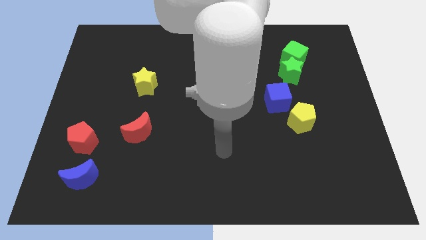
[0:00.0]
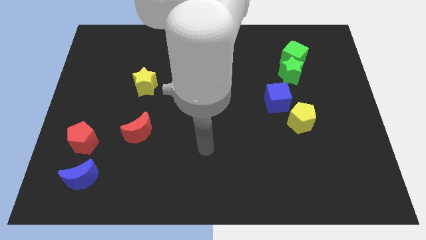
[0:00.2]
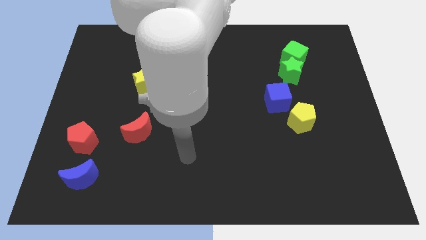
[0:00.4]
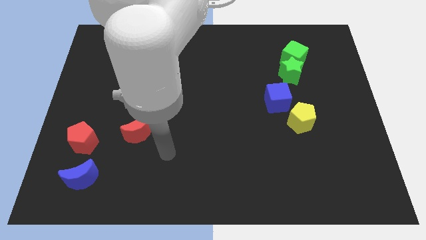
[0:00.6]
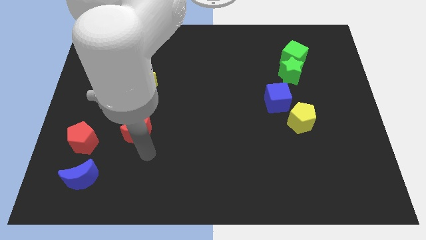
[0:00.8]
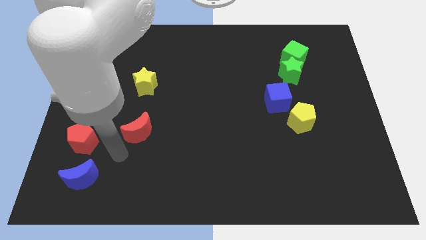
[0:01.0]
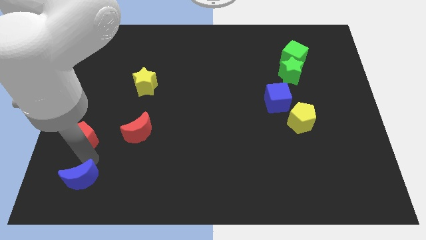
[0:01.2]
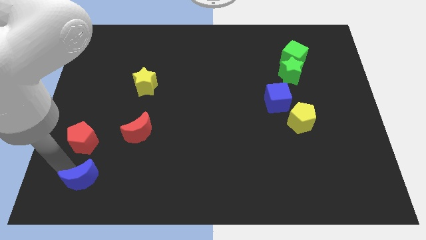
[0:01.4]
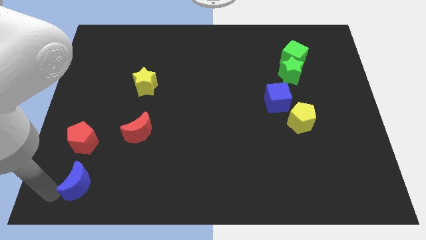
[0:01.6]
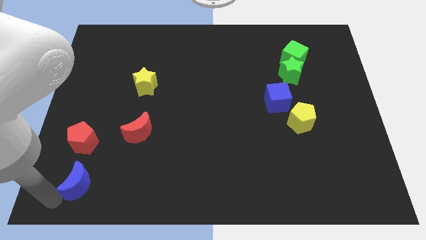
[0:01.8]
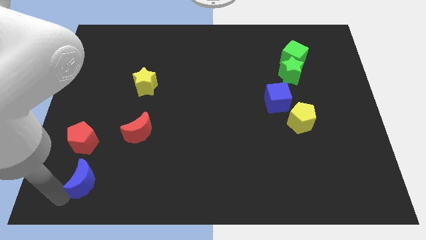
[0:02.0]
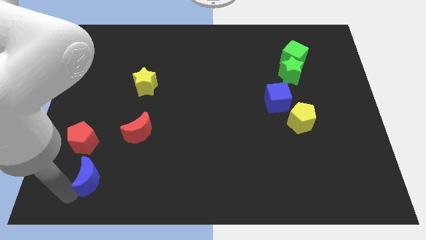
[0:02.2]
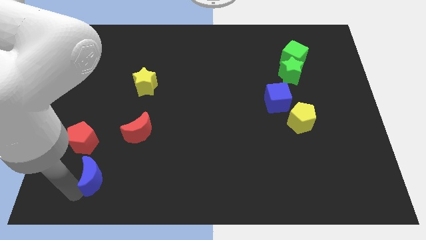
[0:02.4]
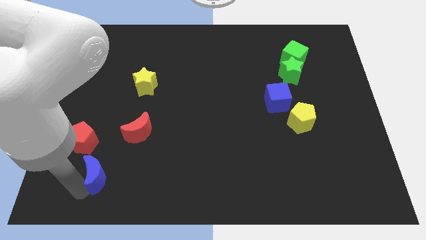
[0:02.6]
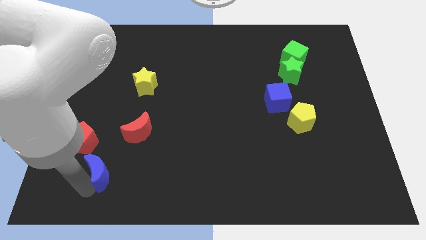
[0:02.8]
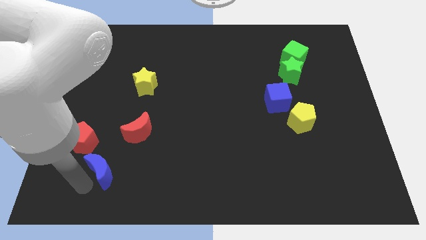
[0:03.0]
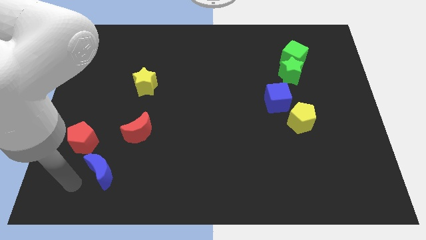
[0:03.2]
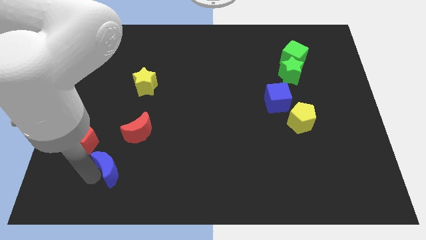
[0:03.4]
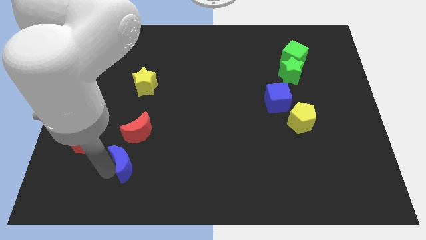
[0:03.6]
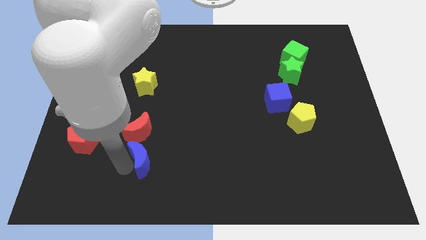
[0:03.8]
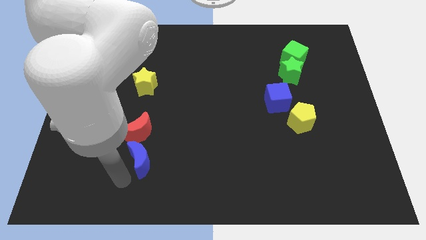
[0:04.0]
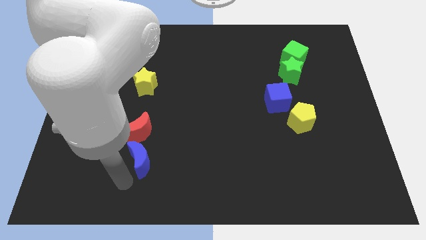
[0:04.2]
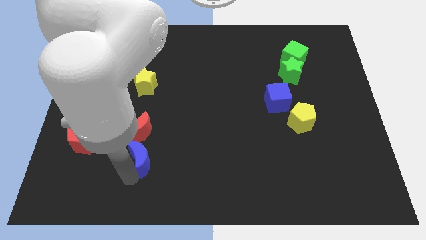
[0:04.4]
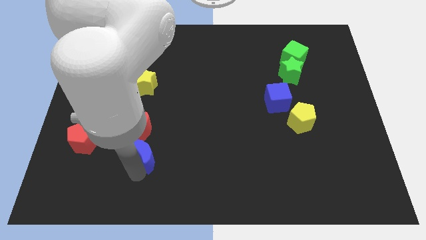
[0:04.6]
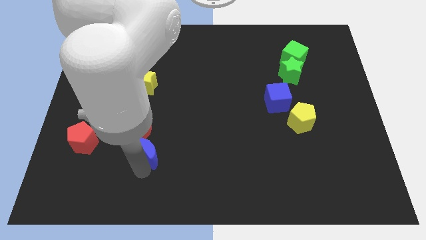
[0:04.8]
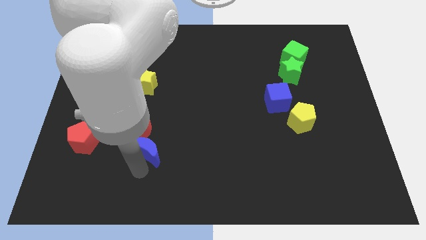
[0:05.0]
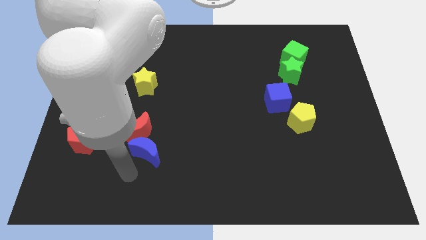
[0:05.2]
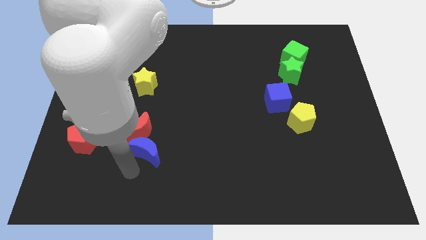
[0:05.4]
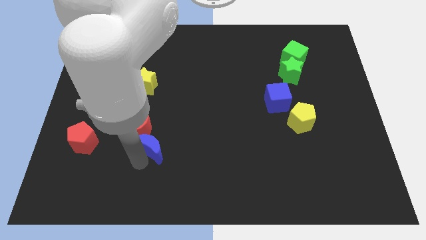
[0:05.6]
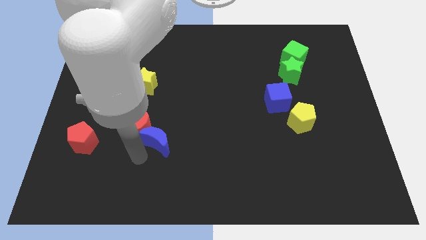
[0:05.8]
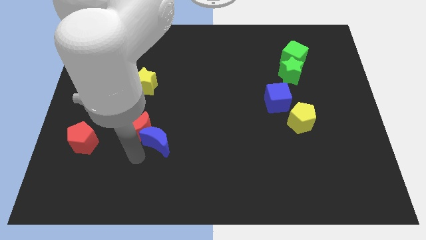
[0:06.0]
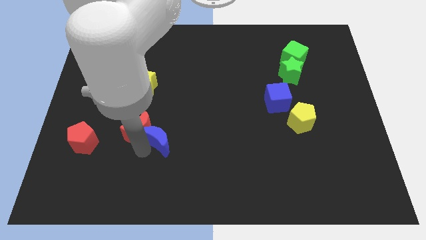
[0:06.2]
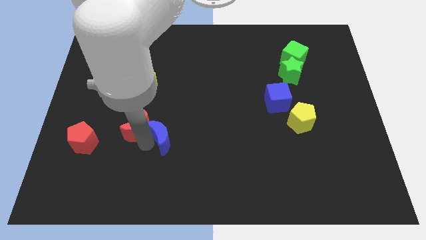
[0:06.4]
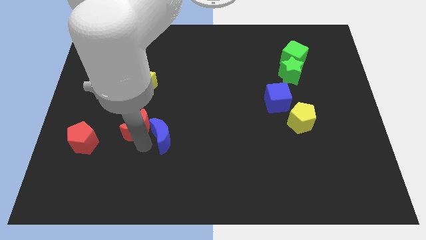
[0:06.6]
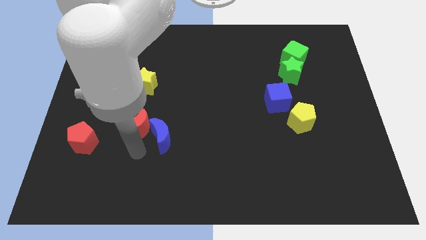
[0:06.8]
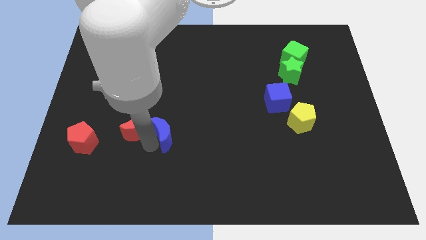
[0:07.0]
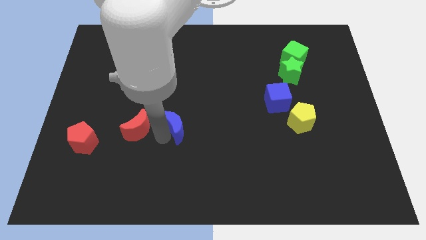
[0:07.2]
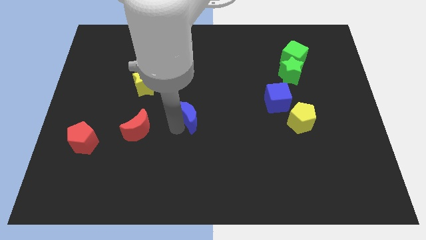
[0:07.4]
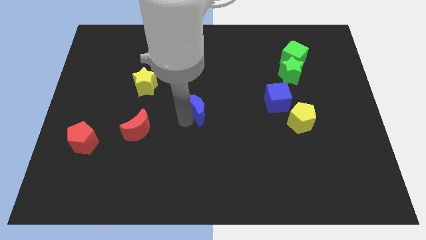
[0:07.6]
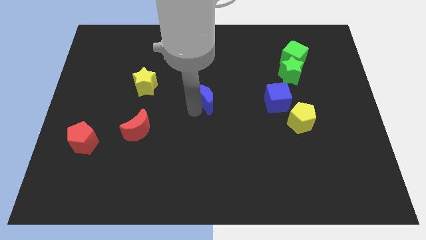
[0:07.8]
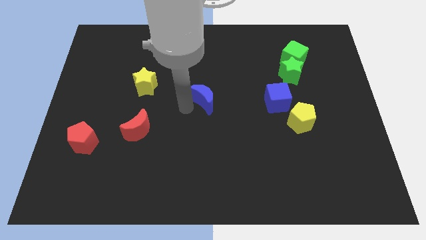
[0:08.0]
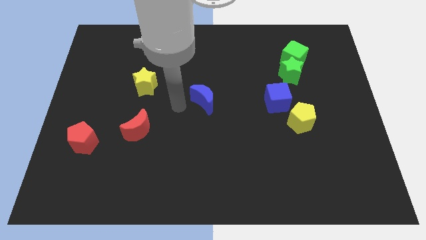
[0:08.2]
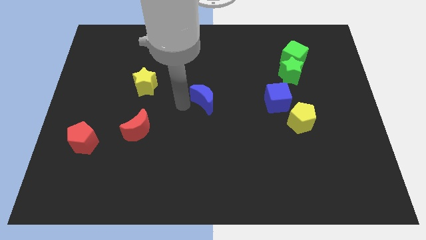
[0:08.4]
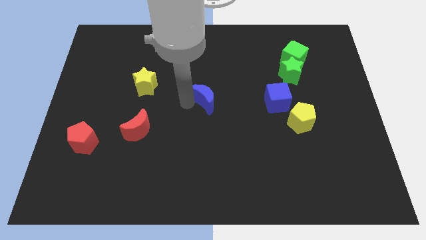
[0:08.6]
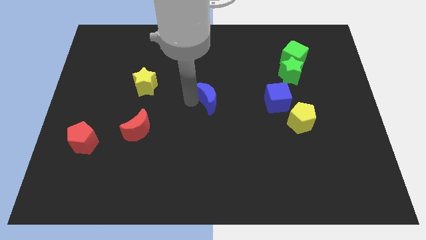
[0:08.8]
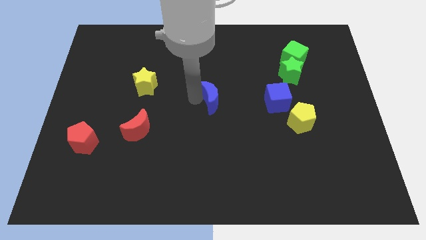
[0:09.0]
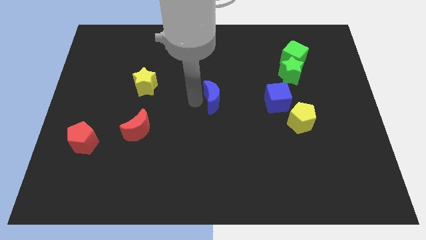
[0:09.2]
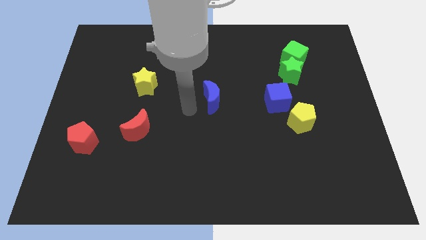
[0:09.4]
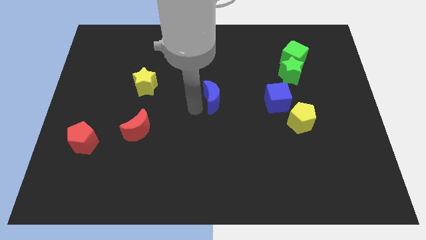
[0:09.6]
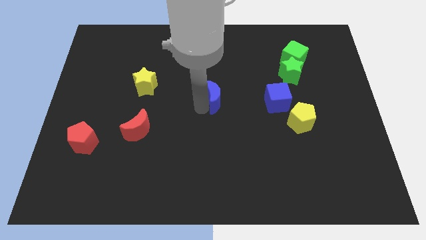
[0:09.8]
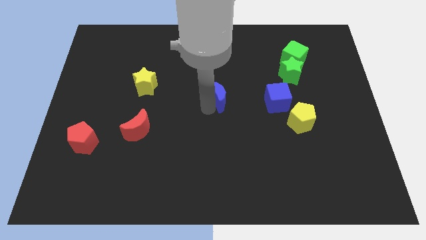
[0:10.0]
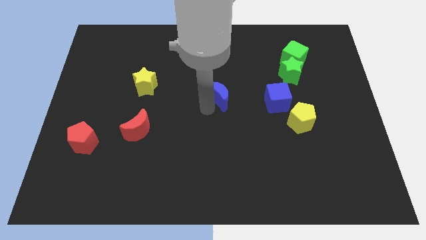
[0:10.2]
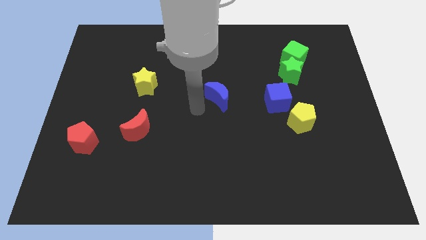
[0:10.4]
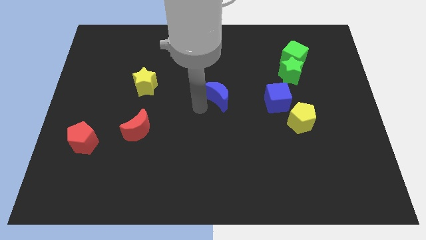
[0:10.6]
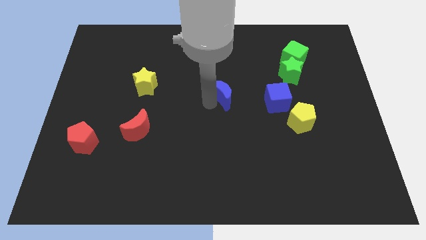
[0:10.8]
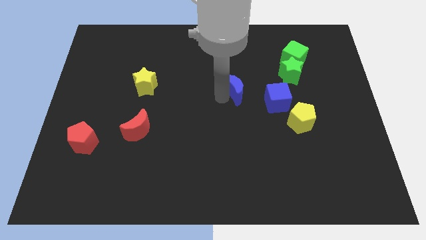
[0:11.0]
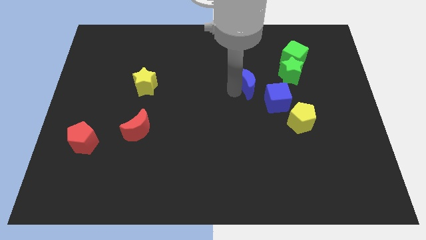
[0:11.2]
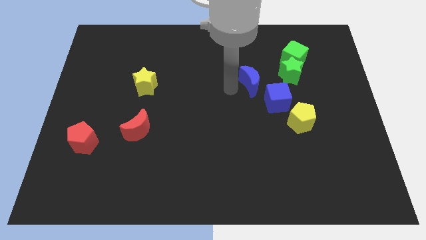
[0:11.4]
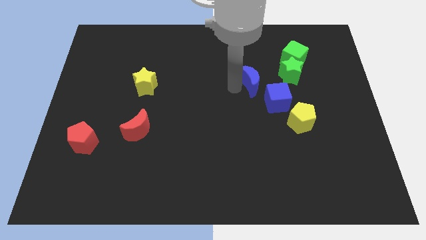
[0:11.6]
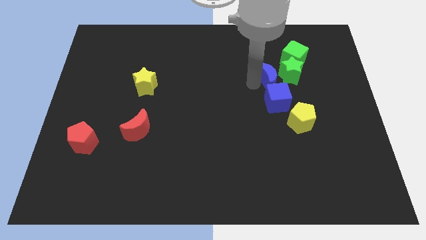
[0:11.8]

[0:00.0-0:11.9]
put the blue moon close to the green star

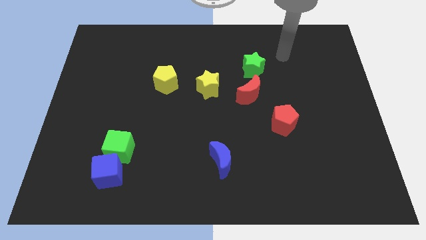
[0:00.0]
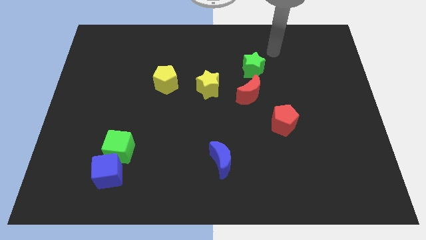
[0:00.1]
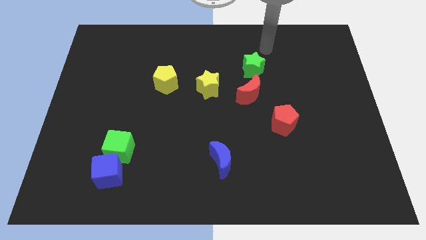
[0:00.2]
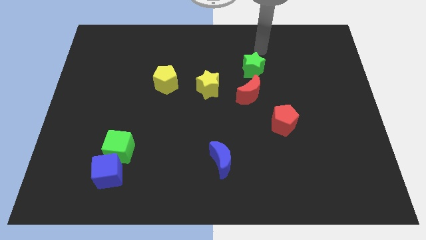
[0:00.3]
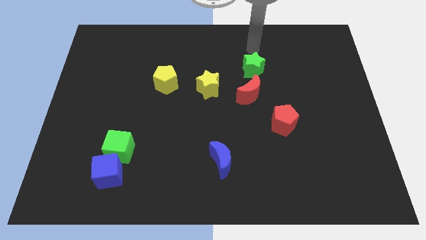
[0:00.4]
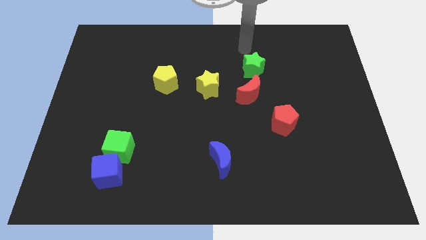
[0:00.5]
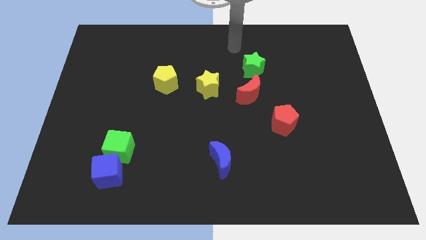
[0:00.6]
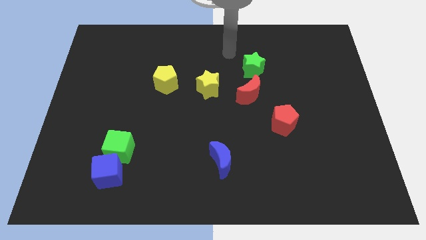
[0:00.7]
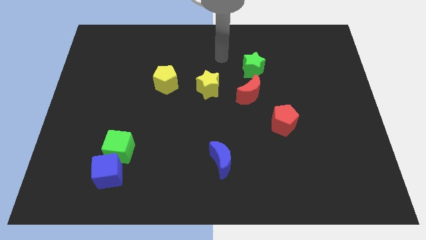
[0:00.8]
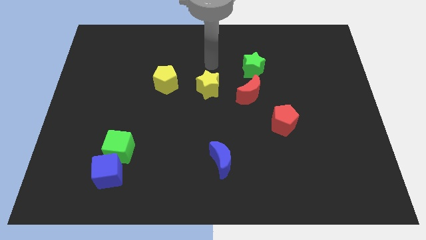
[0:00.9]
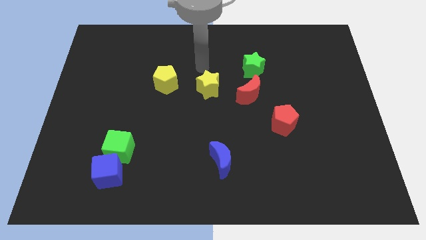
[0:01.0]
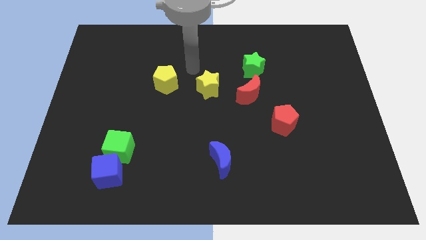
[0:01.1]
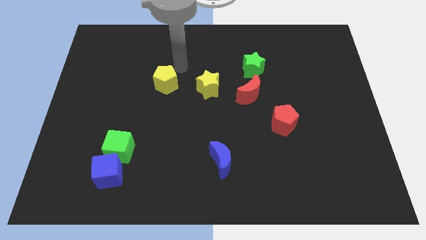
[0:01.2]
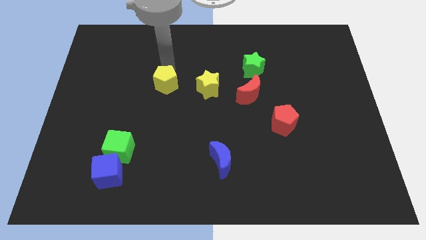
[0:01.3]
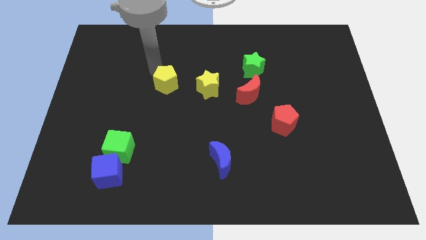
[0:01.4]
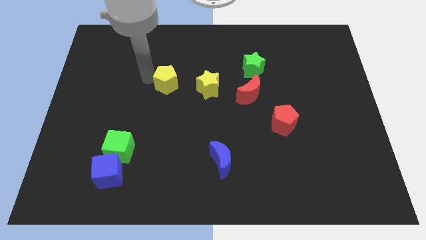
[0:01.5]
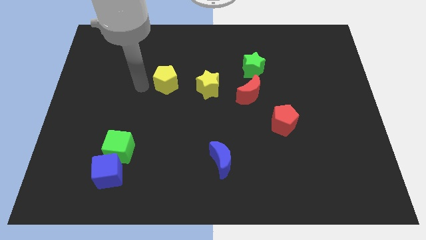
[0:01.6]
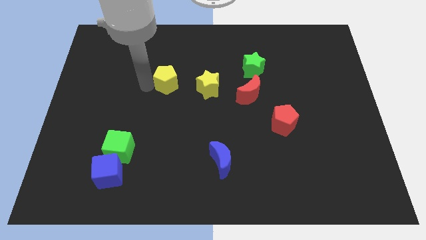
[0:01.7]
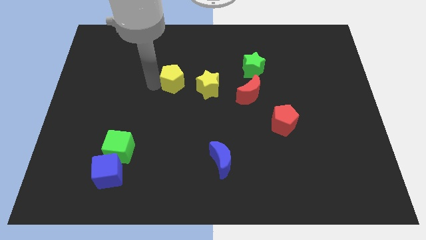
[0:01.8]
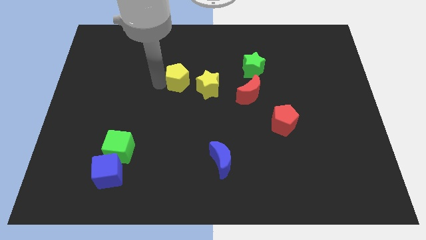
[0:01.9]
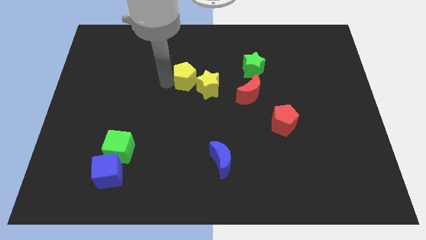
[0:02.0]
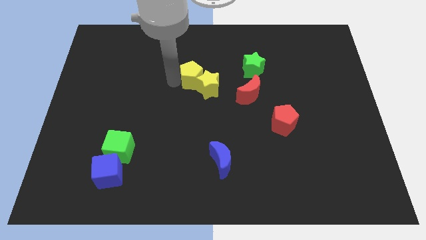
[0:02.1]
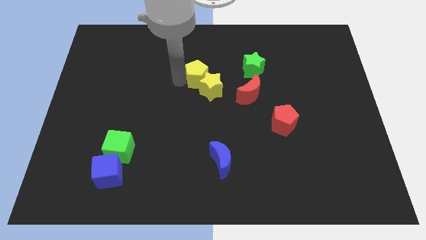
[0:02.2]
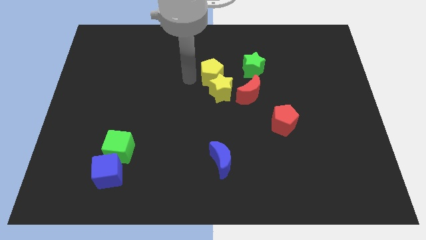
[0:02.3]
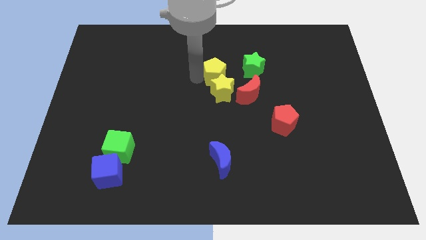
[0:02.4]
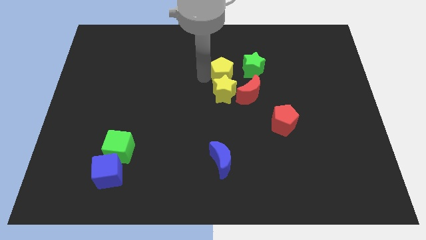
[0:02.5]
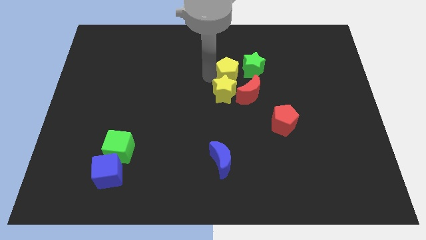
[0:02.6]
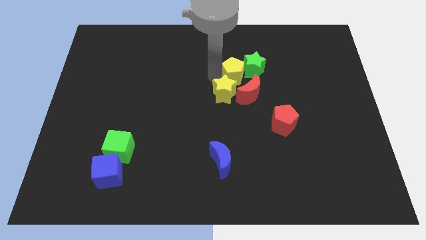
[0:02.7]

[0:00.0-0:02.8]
slide the yellow pentagon next to the green star
